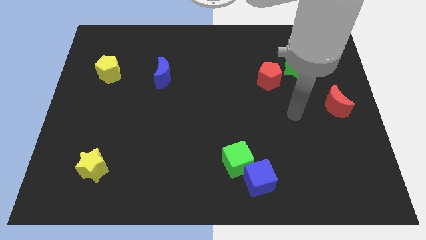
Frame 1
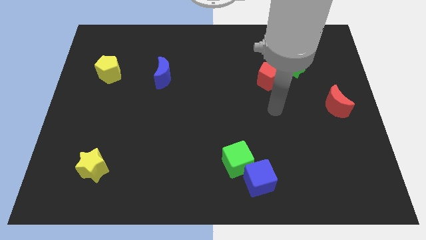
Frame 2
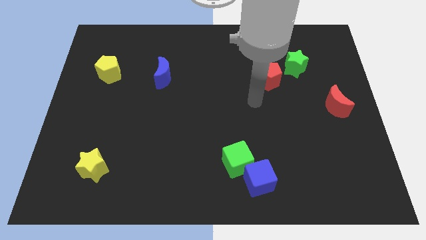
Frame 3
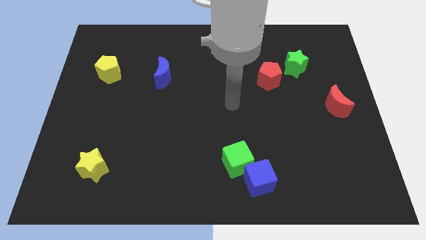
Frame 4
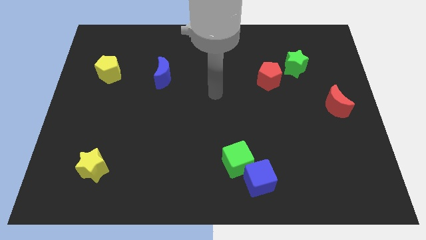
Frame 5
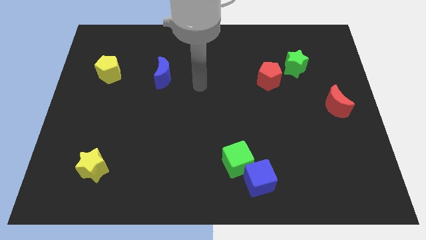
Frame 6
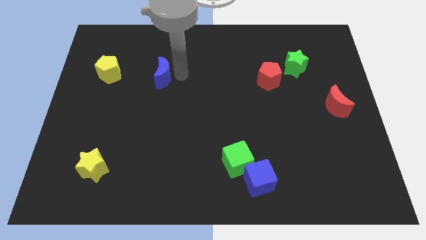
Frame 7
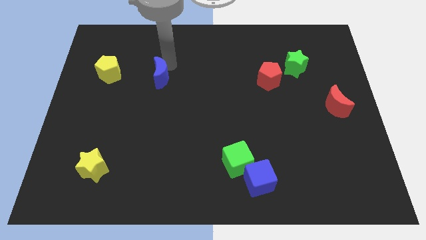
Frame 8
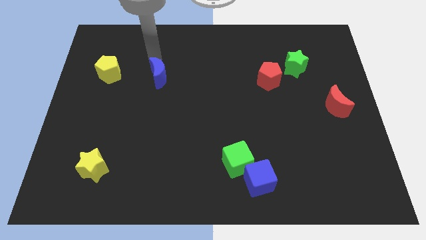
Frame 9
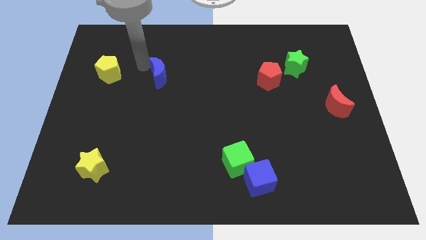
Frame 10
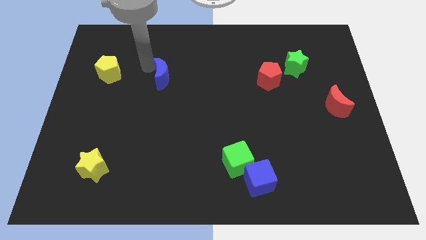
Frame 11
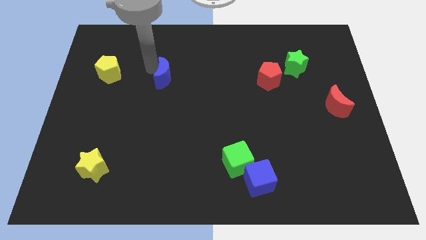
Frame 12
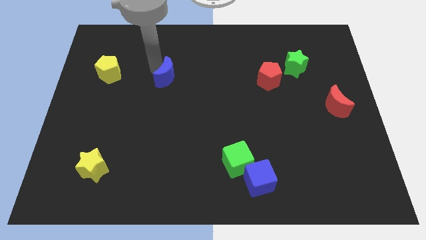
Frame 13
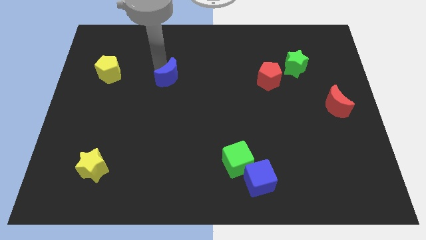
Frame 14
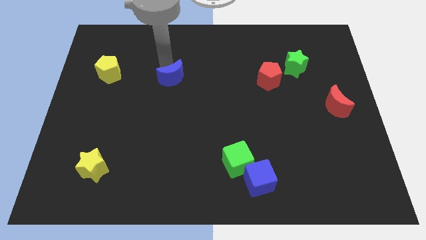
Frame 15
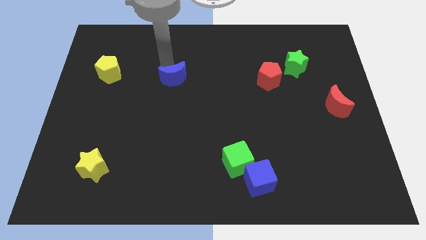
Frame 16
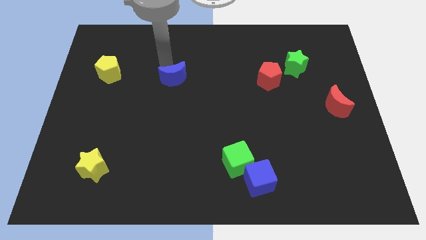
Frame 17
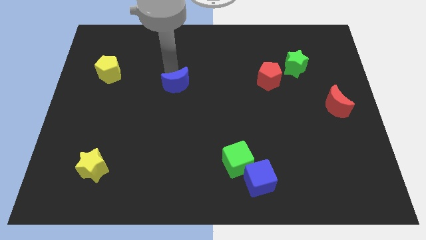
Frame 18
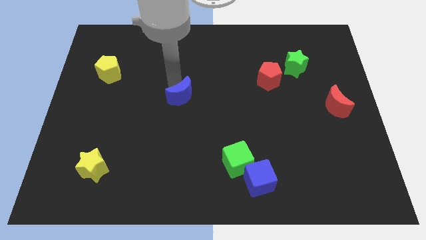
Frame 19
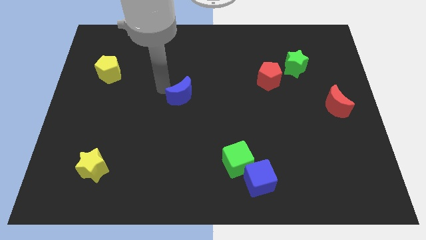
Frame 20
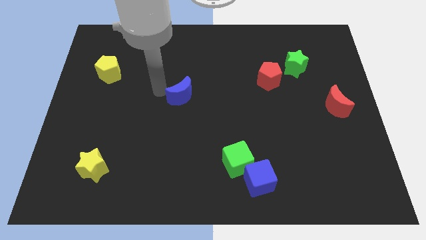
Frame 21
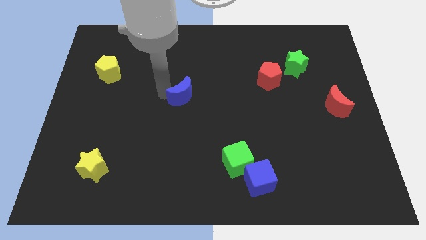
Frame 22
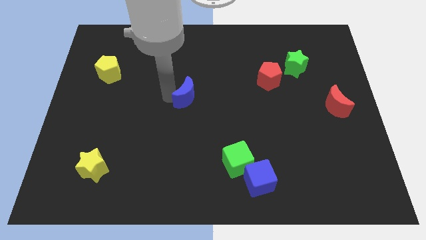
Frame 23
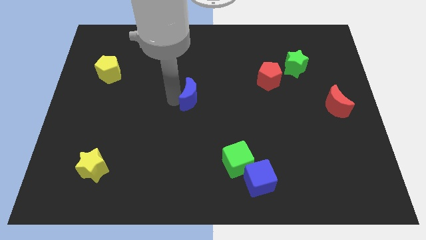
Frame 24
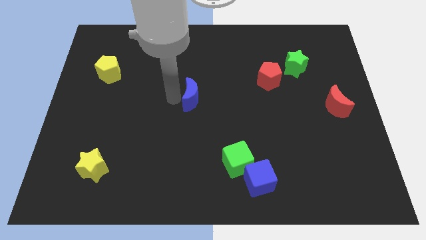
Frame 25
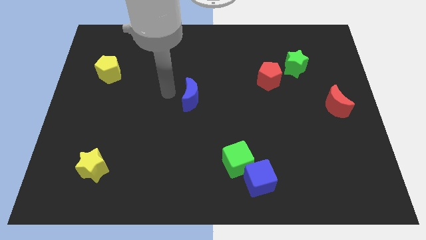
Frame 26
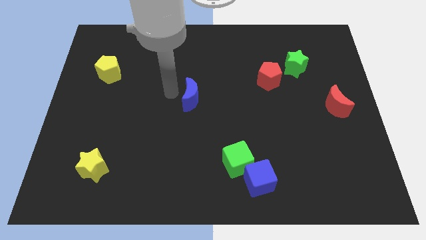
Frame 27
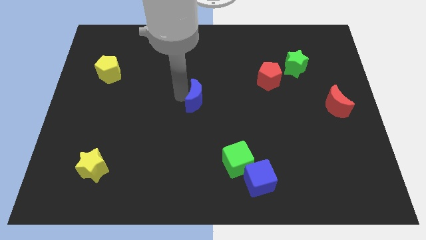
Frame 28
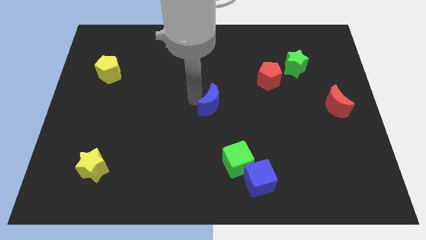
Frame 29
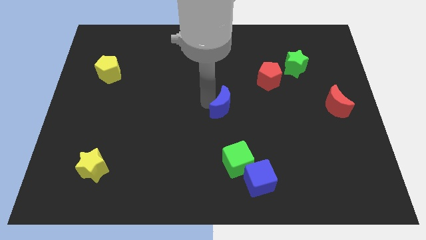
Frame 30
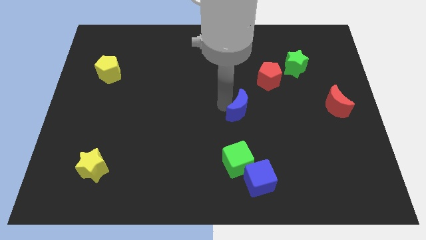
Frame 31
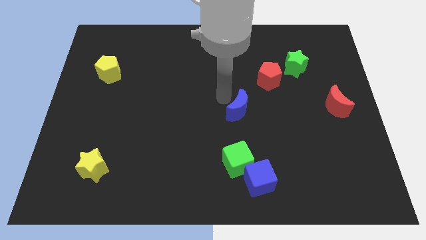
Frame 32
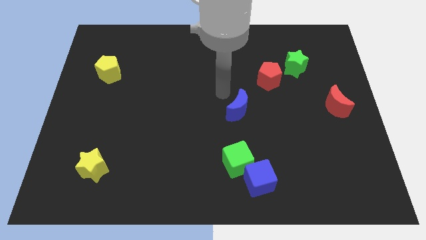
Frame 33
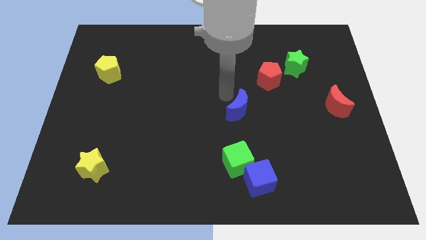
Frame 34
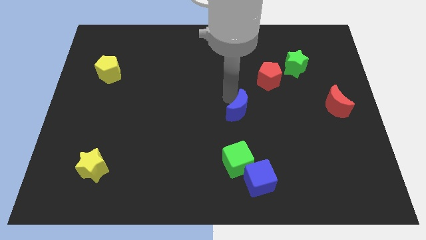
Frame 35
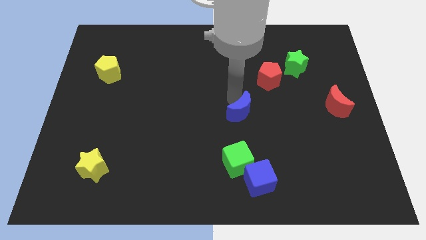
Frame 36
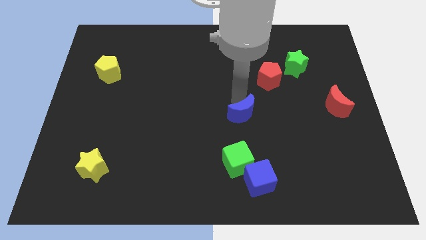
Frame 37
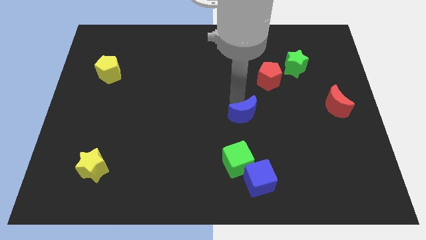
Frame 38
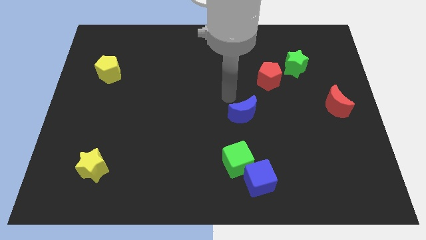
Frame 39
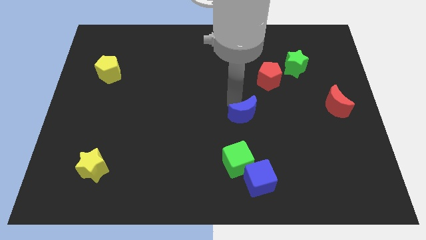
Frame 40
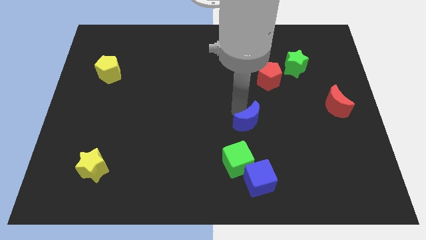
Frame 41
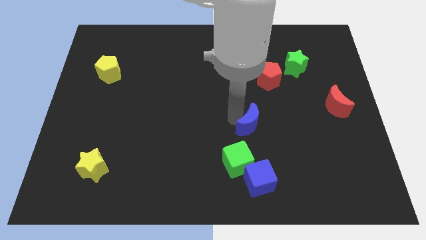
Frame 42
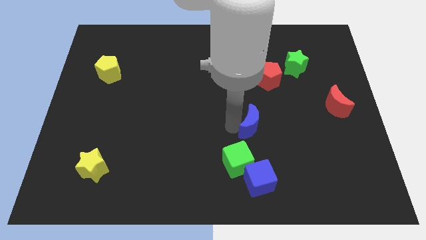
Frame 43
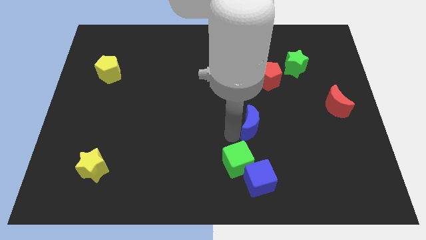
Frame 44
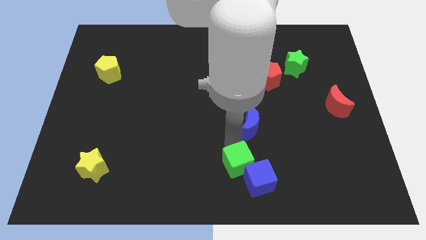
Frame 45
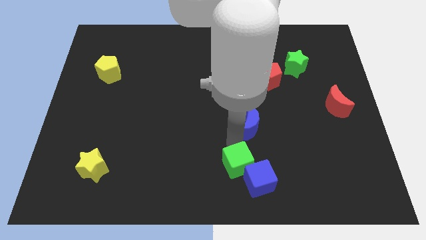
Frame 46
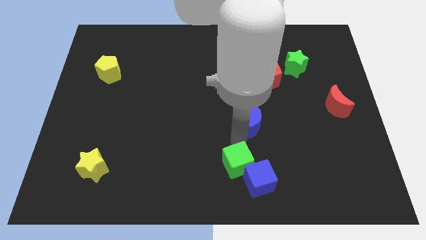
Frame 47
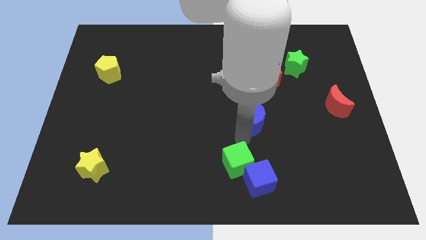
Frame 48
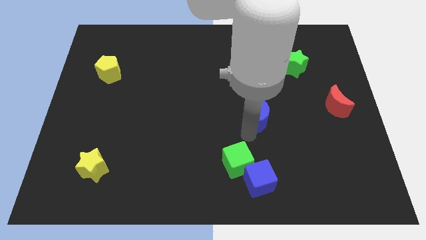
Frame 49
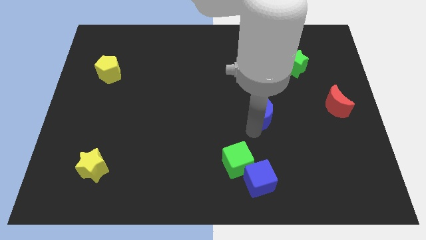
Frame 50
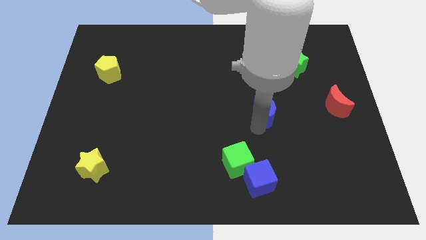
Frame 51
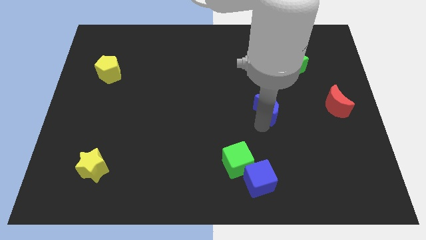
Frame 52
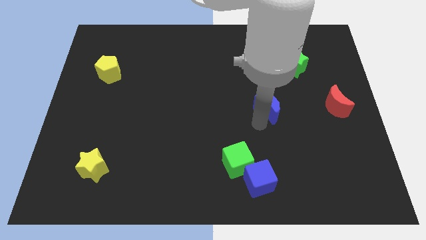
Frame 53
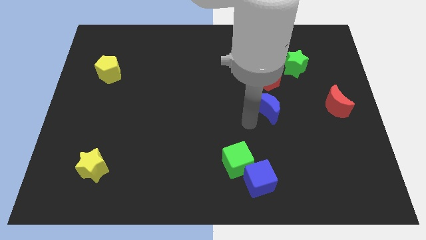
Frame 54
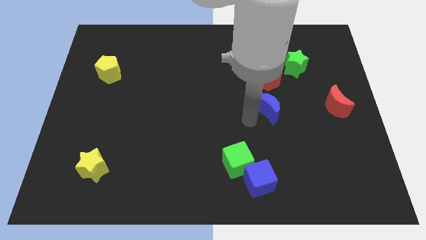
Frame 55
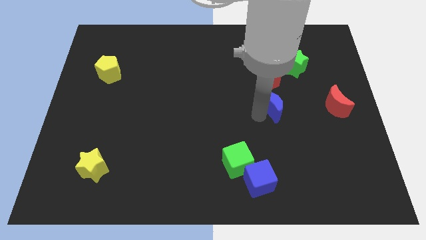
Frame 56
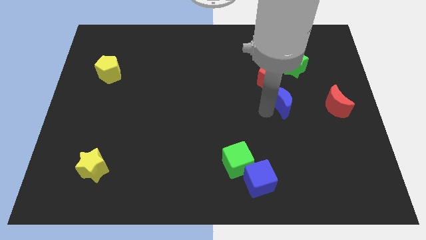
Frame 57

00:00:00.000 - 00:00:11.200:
slide the blue moon to the bottom of the green star
